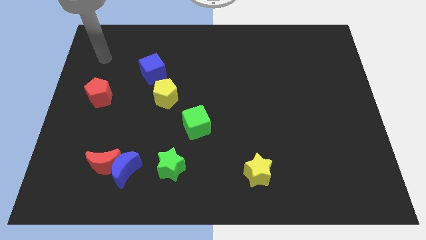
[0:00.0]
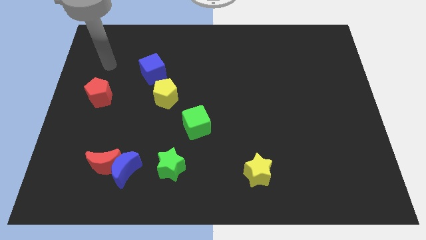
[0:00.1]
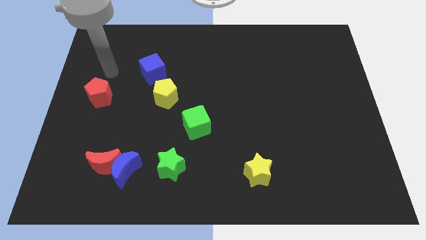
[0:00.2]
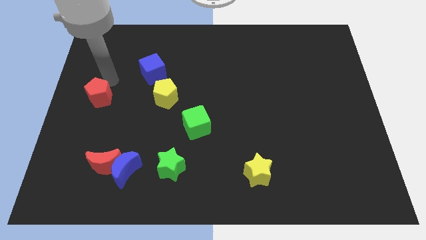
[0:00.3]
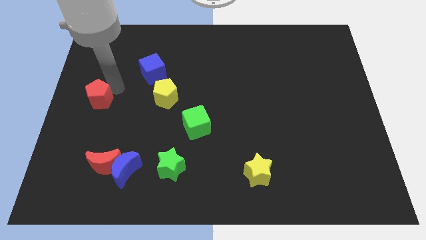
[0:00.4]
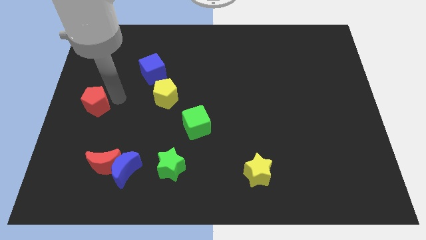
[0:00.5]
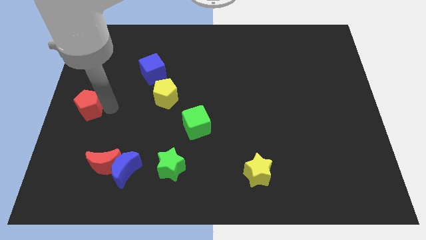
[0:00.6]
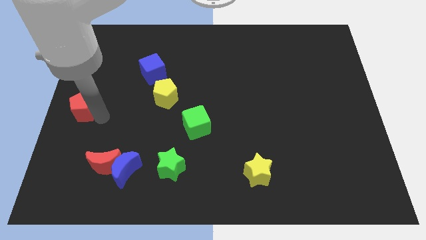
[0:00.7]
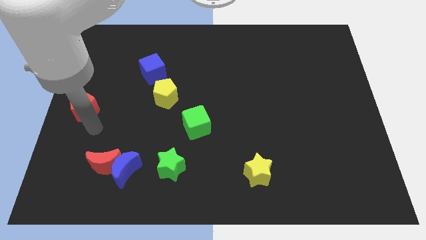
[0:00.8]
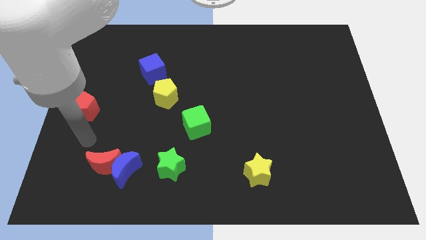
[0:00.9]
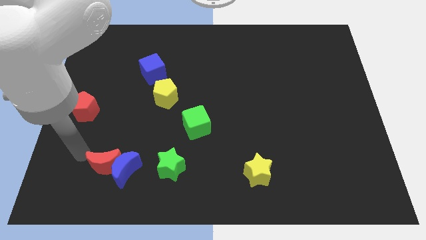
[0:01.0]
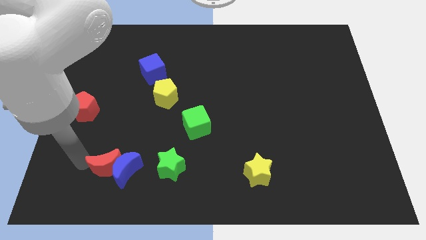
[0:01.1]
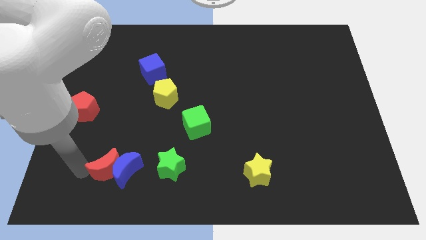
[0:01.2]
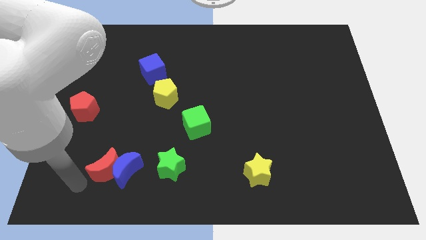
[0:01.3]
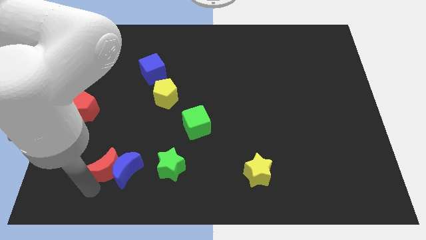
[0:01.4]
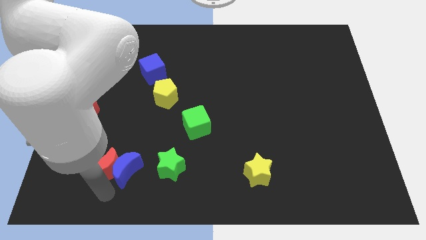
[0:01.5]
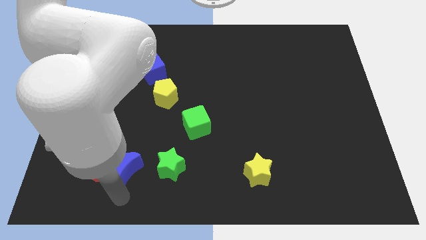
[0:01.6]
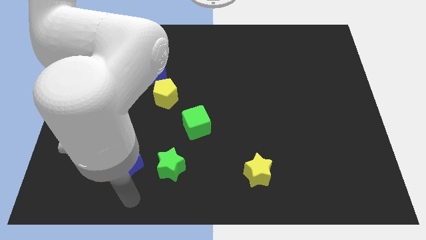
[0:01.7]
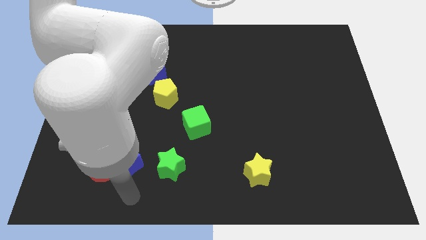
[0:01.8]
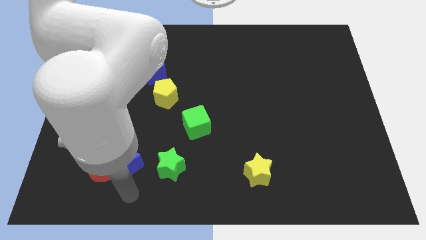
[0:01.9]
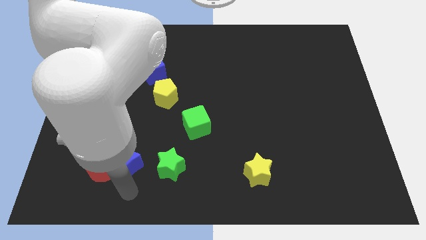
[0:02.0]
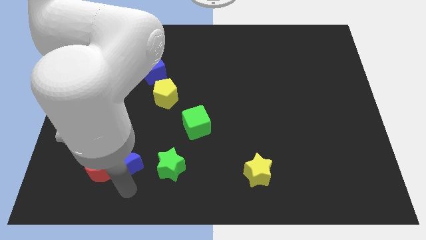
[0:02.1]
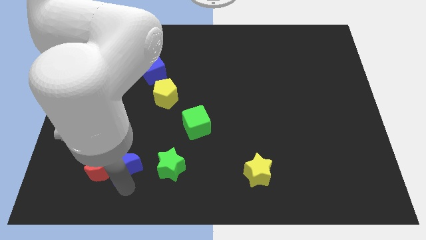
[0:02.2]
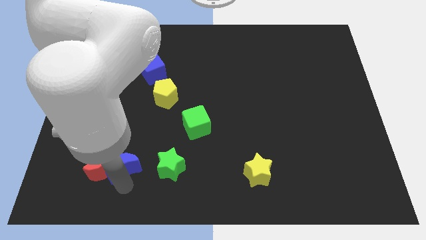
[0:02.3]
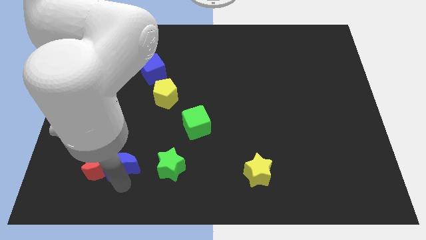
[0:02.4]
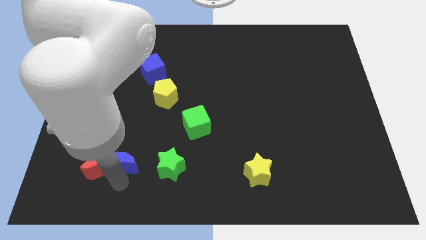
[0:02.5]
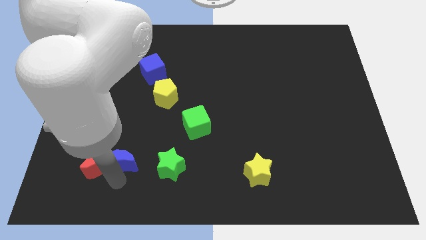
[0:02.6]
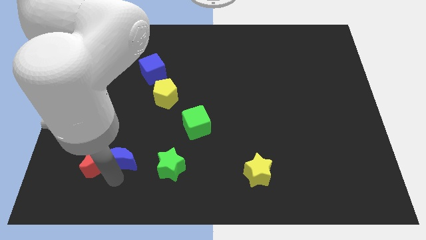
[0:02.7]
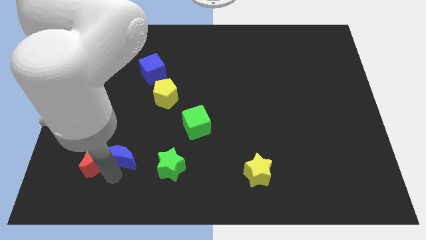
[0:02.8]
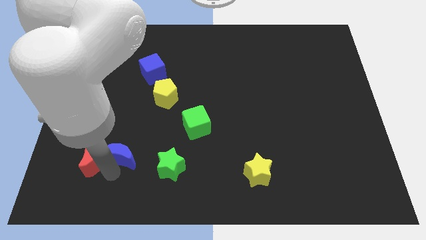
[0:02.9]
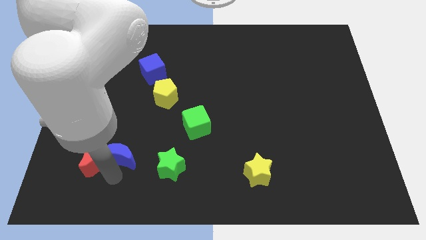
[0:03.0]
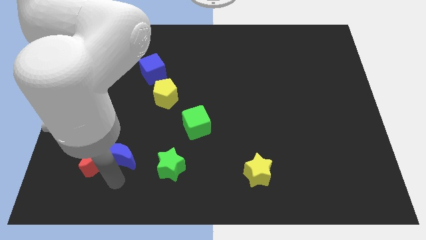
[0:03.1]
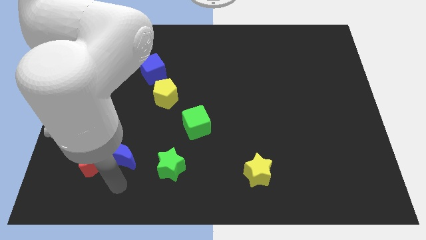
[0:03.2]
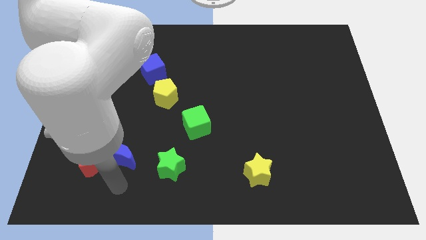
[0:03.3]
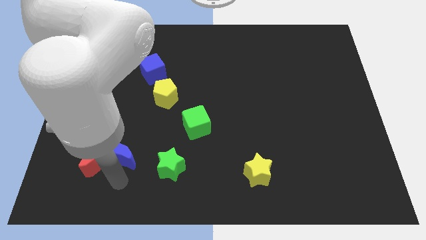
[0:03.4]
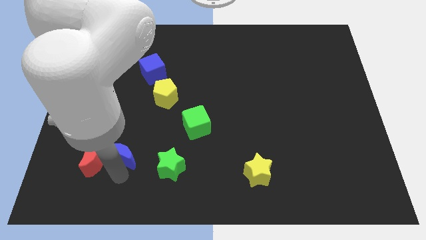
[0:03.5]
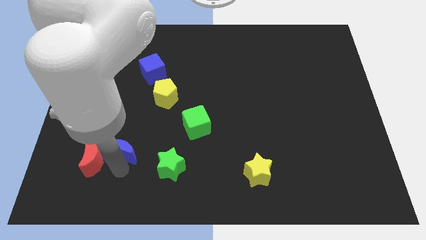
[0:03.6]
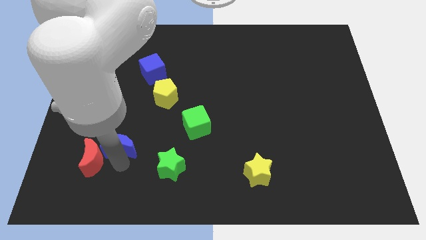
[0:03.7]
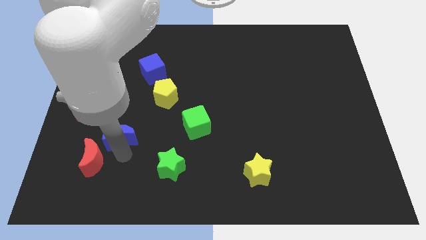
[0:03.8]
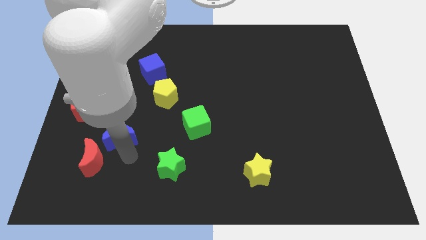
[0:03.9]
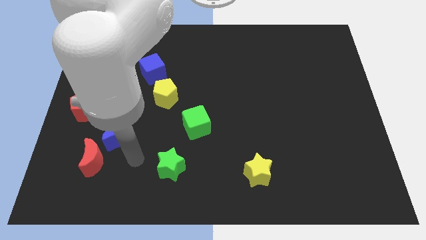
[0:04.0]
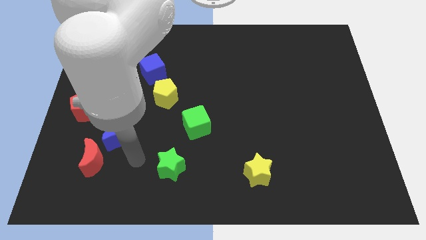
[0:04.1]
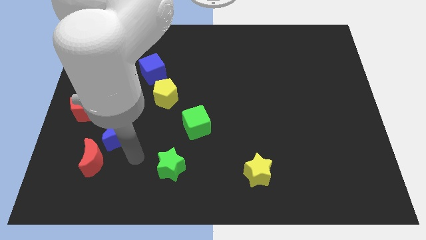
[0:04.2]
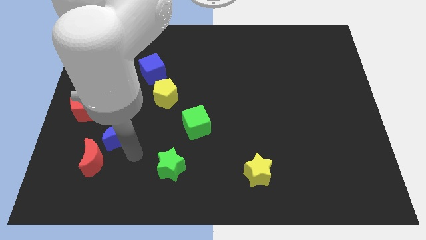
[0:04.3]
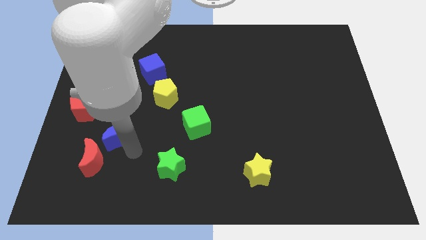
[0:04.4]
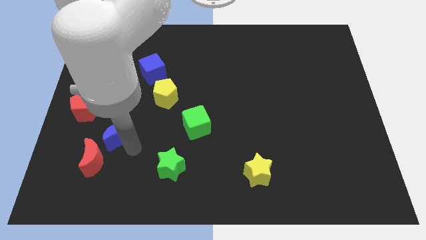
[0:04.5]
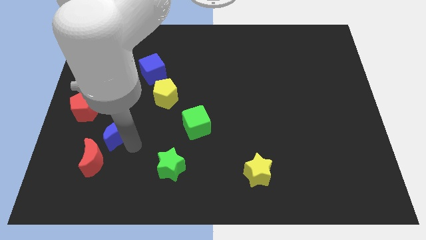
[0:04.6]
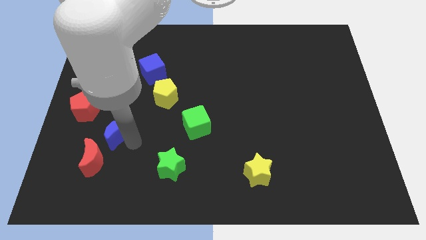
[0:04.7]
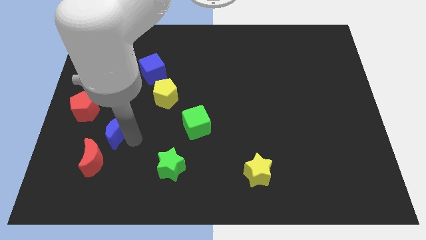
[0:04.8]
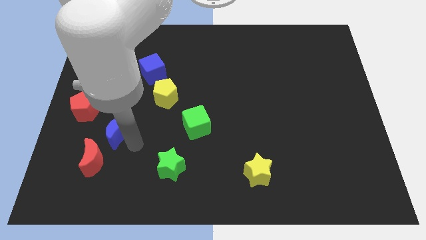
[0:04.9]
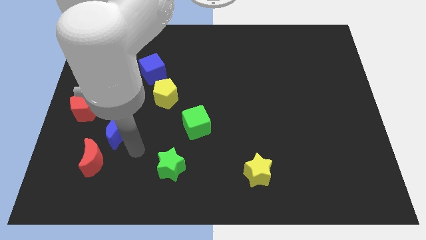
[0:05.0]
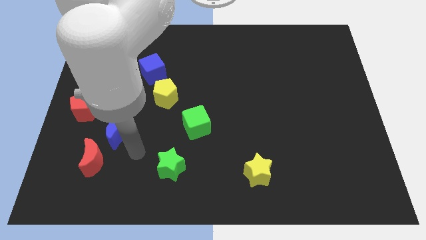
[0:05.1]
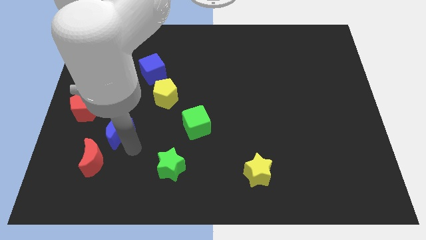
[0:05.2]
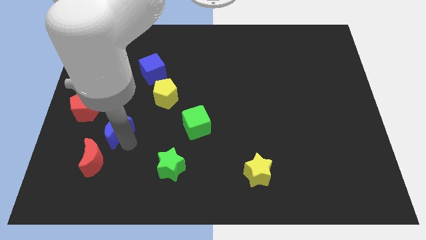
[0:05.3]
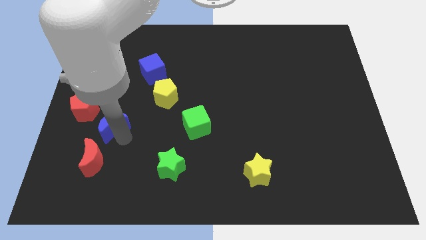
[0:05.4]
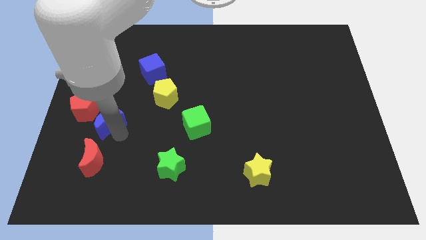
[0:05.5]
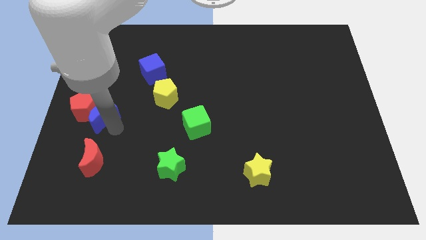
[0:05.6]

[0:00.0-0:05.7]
slide the blue moon towards the red pentagon

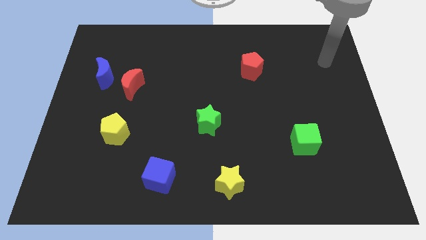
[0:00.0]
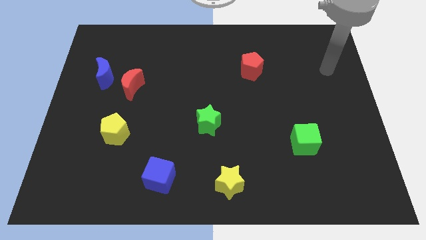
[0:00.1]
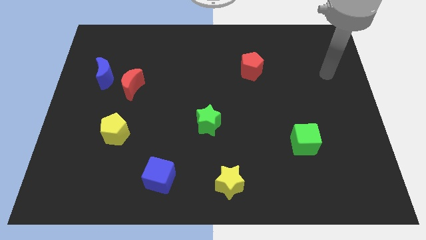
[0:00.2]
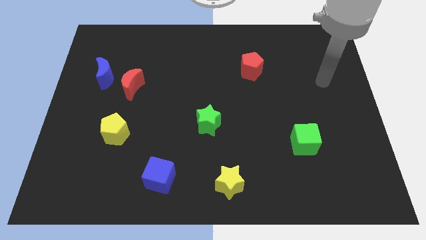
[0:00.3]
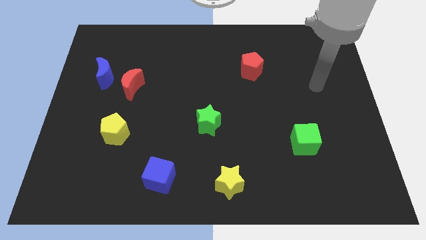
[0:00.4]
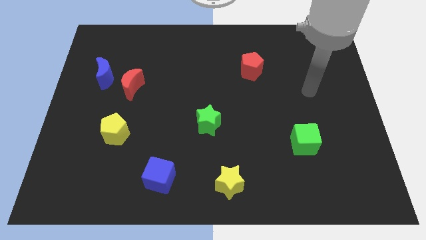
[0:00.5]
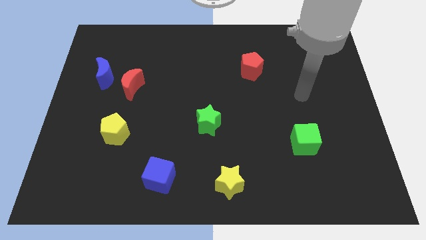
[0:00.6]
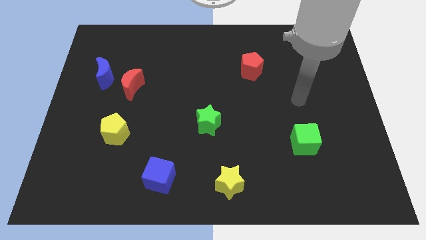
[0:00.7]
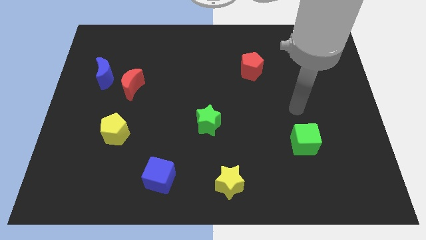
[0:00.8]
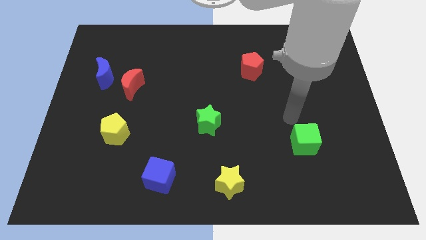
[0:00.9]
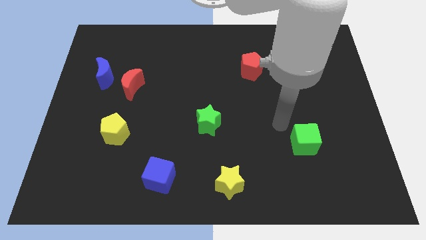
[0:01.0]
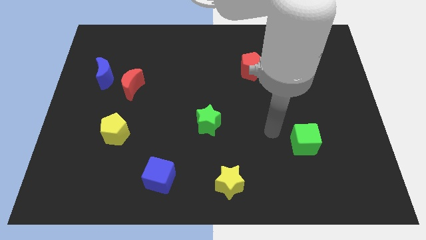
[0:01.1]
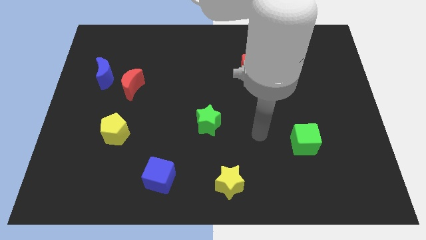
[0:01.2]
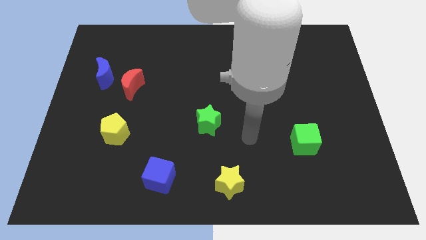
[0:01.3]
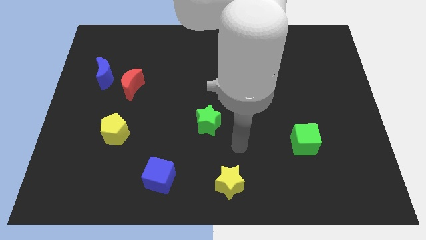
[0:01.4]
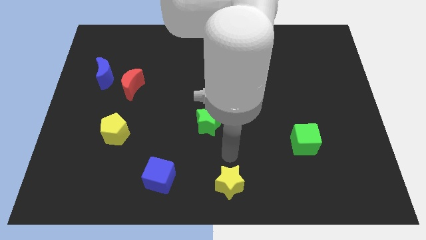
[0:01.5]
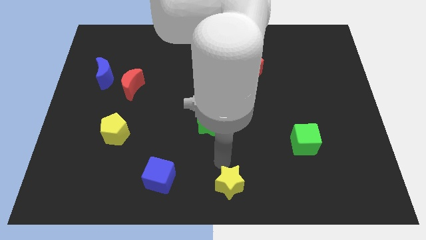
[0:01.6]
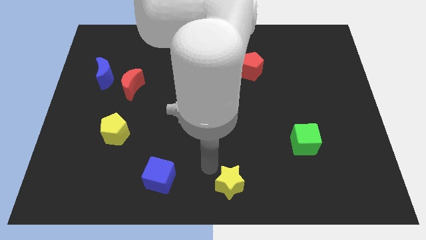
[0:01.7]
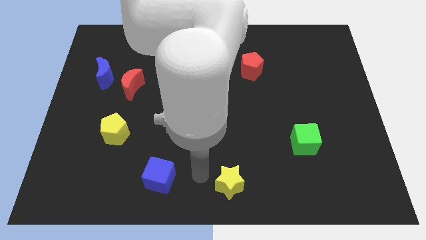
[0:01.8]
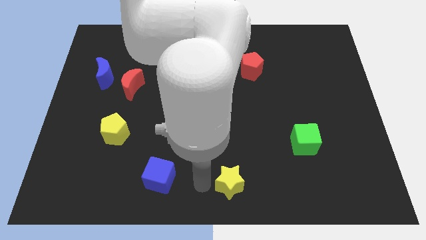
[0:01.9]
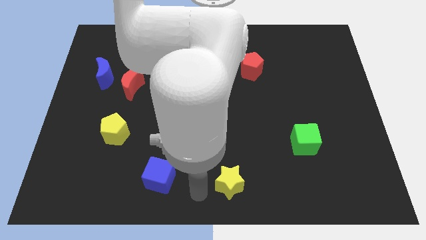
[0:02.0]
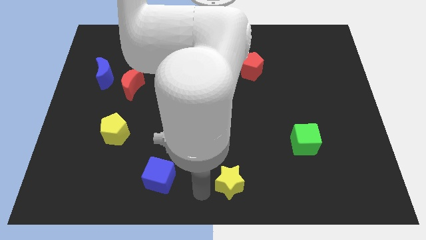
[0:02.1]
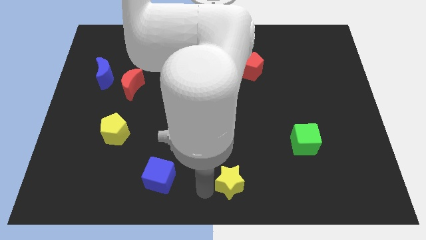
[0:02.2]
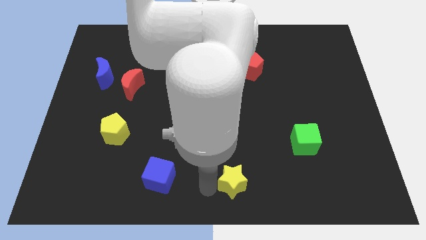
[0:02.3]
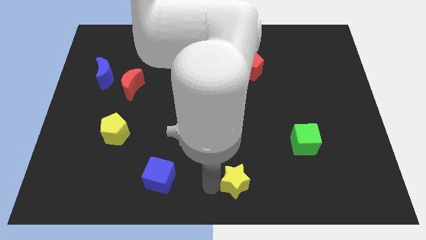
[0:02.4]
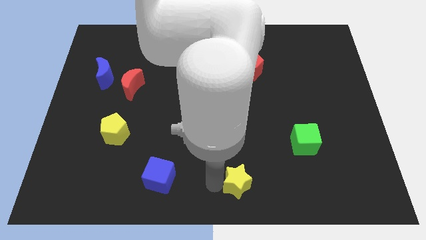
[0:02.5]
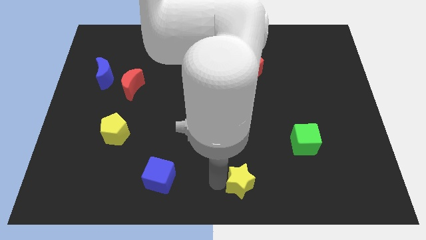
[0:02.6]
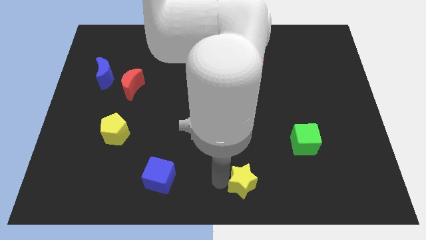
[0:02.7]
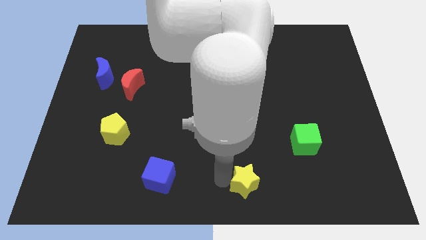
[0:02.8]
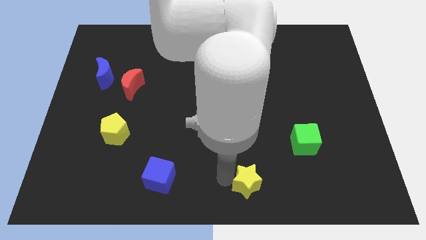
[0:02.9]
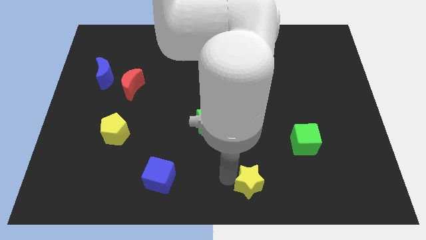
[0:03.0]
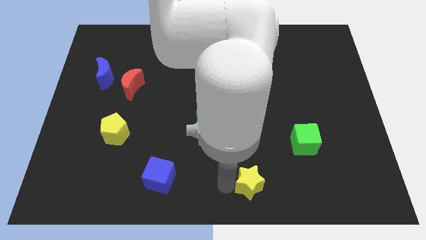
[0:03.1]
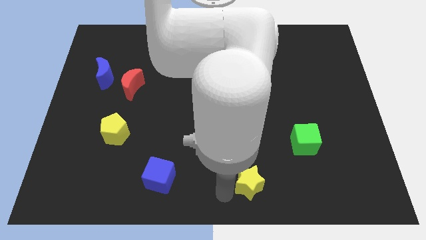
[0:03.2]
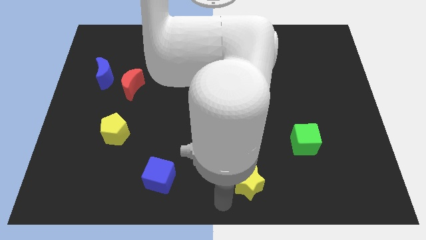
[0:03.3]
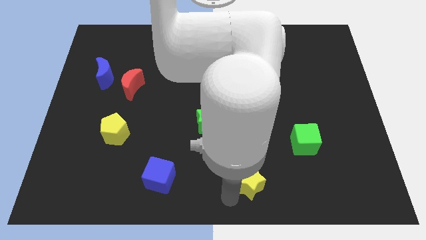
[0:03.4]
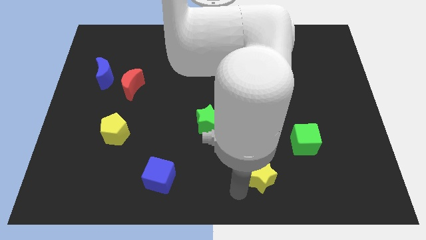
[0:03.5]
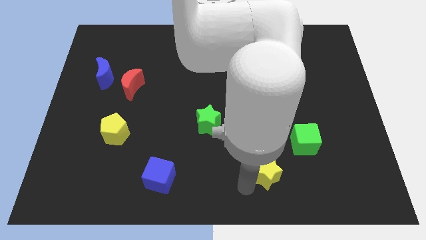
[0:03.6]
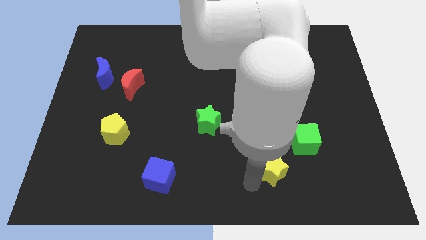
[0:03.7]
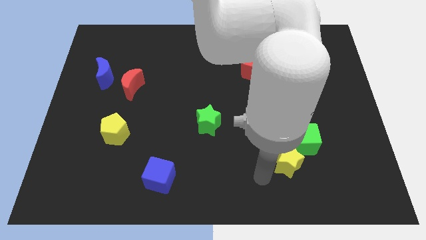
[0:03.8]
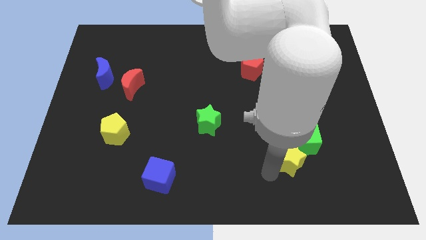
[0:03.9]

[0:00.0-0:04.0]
slide the yellow star to the green cube
